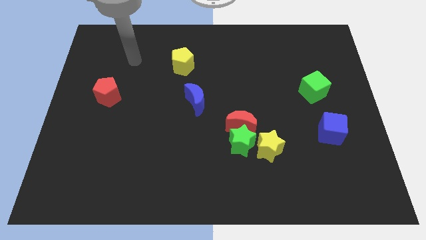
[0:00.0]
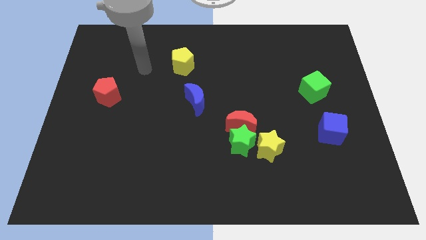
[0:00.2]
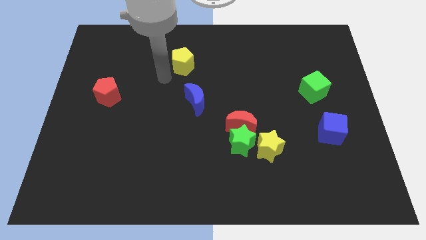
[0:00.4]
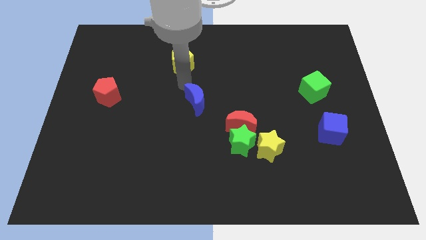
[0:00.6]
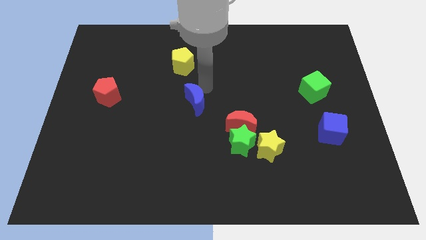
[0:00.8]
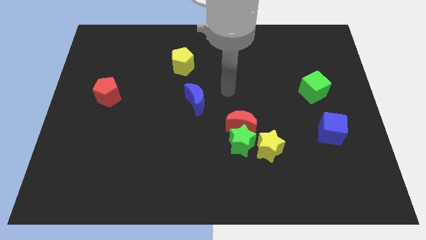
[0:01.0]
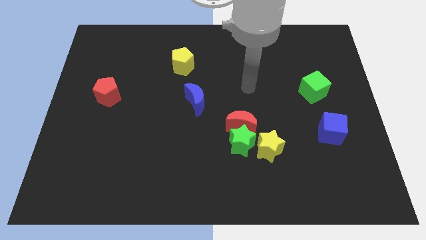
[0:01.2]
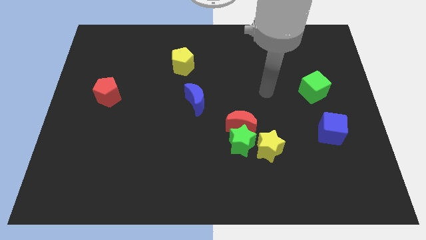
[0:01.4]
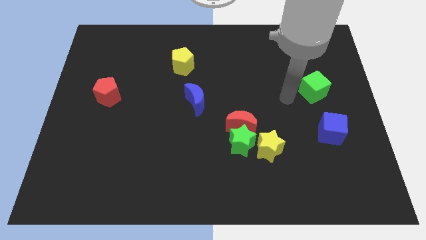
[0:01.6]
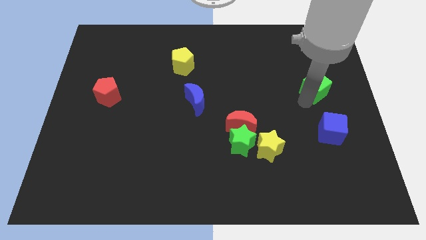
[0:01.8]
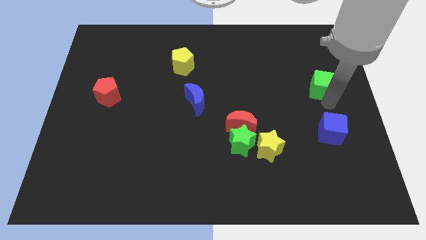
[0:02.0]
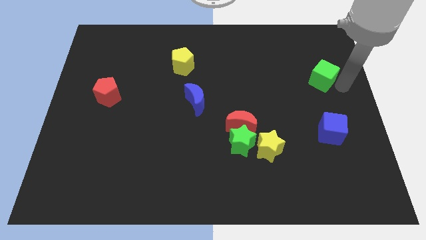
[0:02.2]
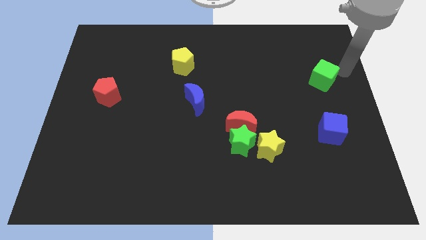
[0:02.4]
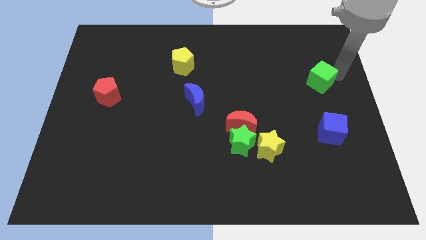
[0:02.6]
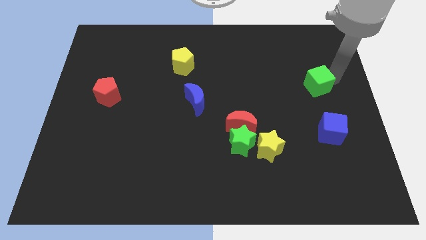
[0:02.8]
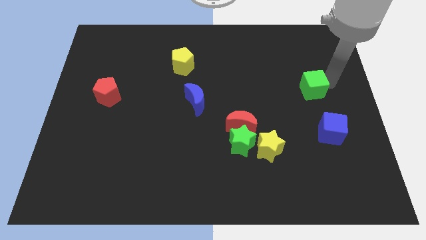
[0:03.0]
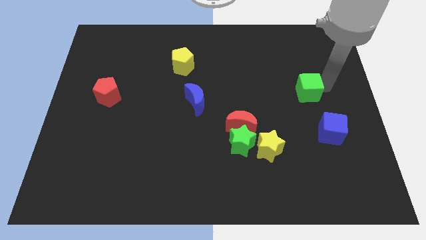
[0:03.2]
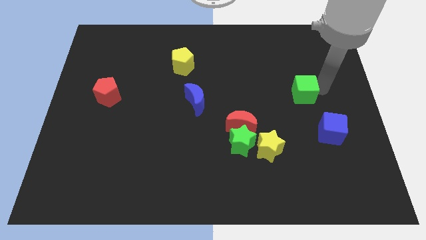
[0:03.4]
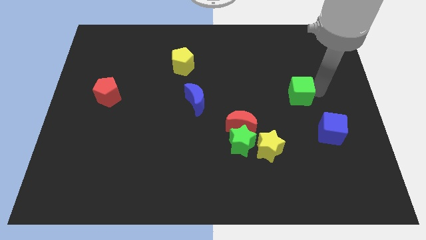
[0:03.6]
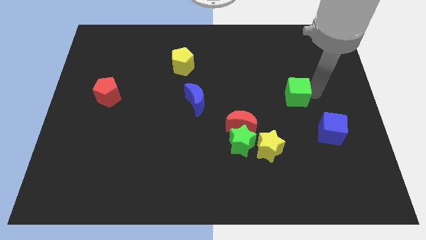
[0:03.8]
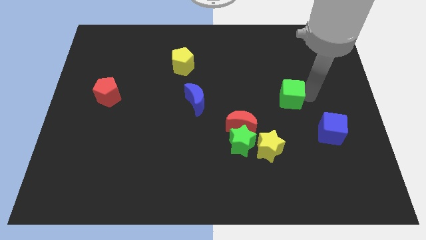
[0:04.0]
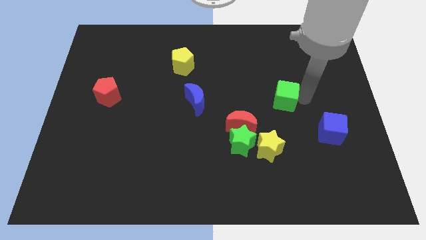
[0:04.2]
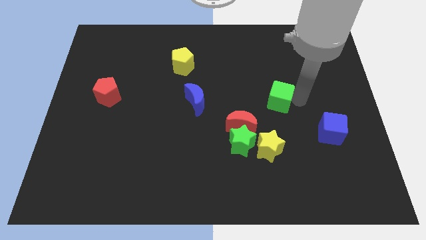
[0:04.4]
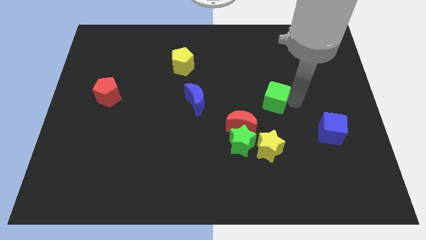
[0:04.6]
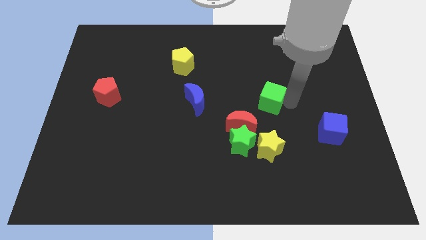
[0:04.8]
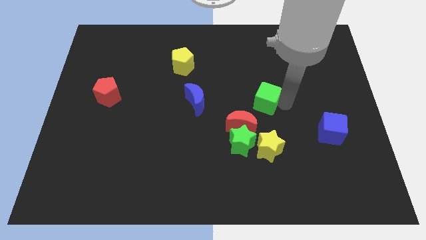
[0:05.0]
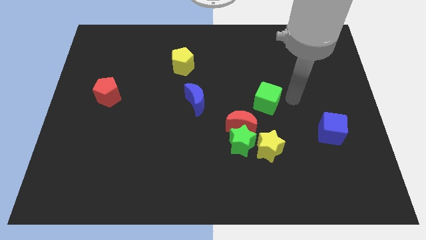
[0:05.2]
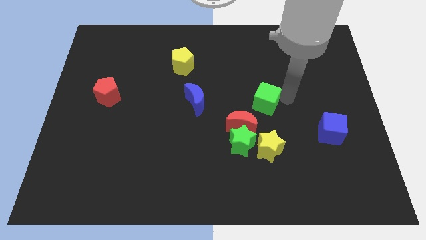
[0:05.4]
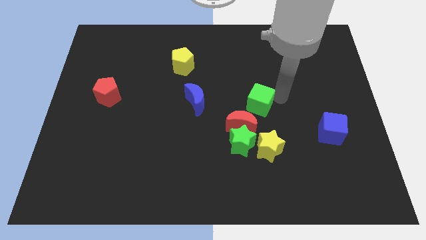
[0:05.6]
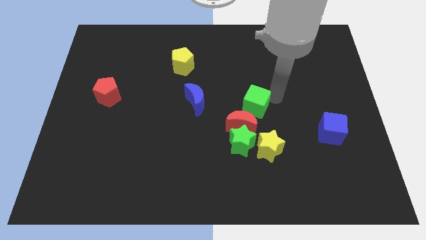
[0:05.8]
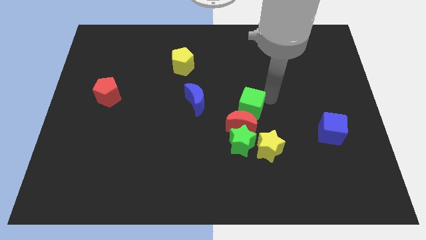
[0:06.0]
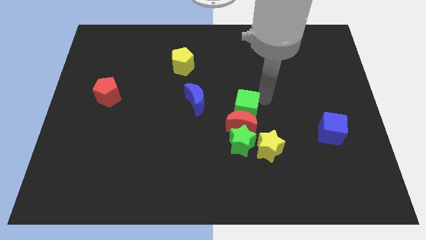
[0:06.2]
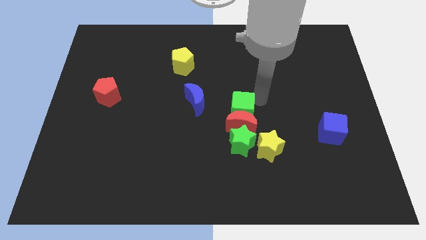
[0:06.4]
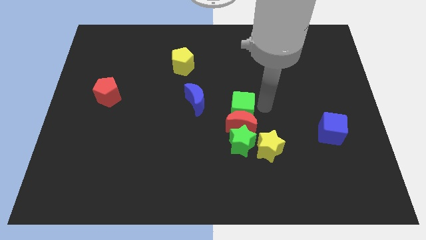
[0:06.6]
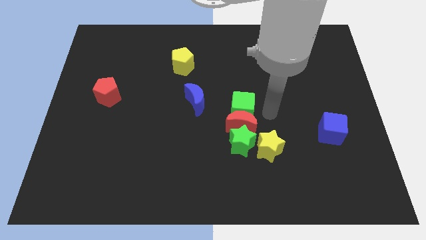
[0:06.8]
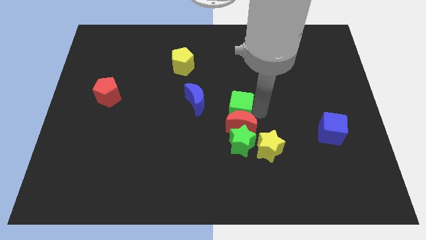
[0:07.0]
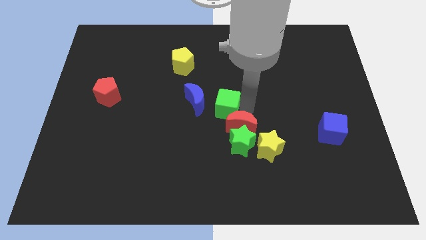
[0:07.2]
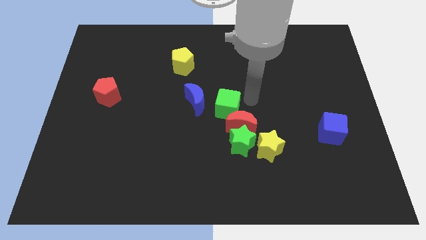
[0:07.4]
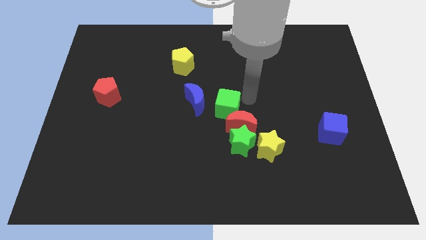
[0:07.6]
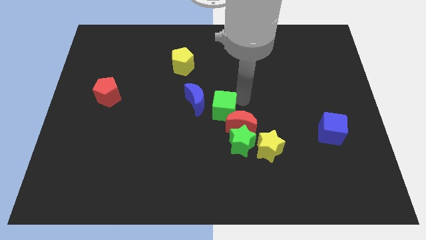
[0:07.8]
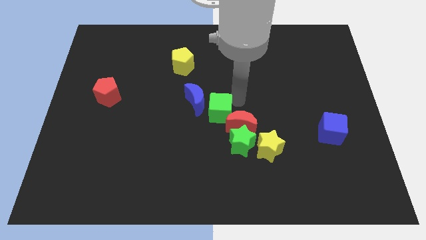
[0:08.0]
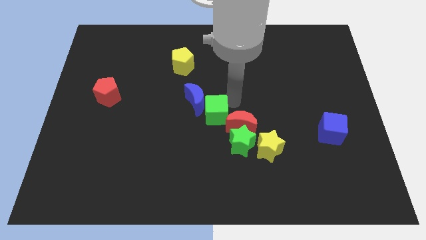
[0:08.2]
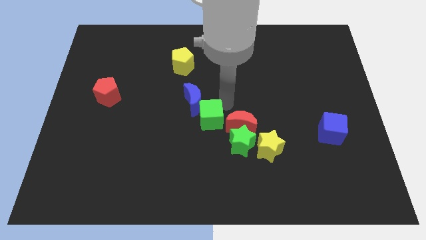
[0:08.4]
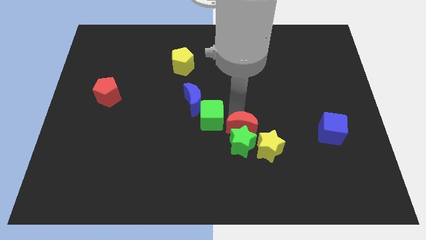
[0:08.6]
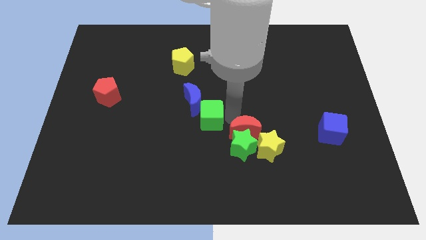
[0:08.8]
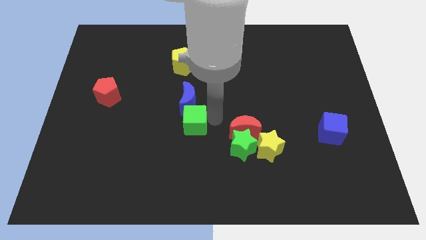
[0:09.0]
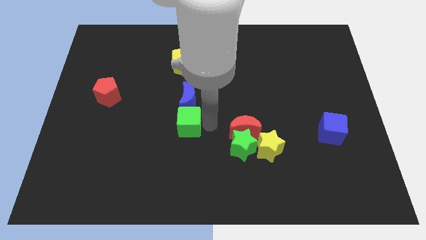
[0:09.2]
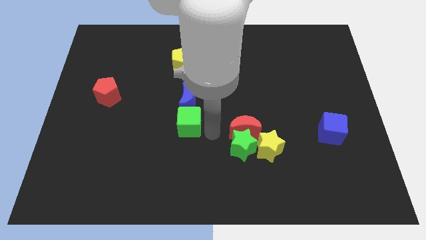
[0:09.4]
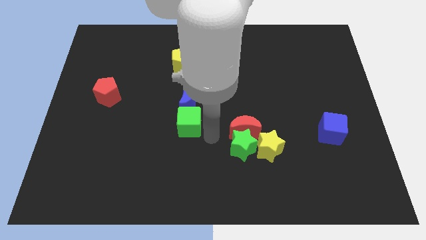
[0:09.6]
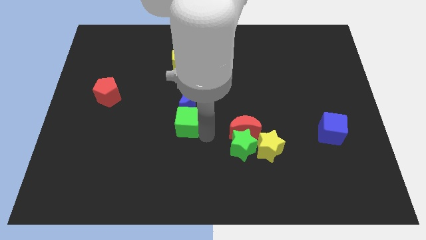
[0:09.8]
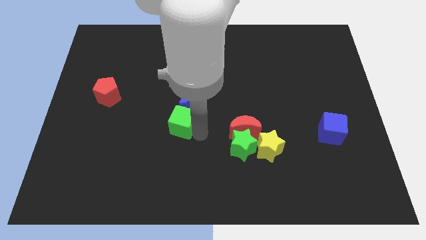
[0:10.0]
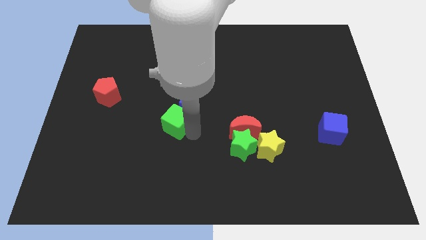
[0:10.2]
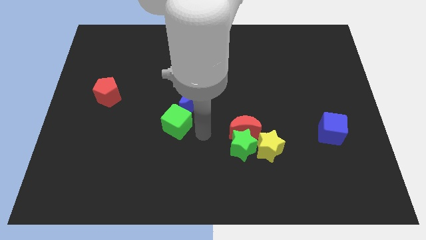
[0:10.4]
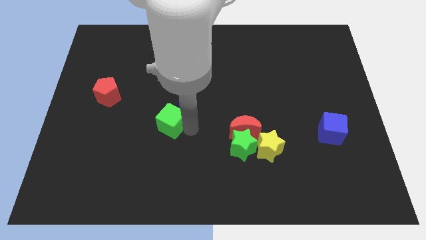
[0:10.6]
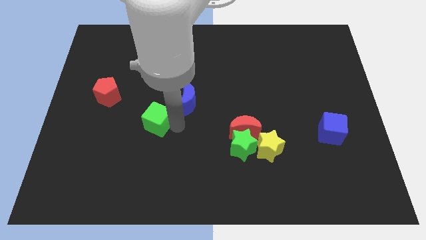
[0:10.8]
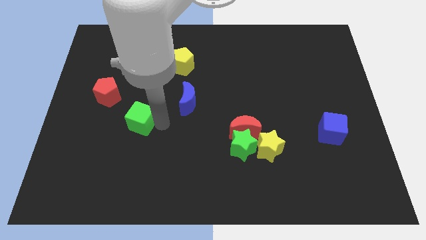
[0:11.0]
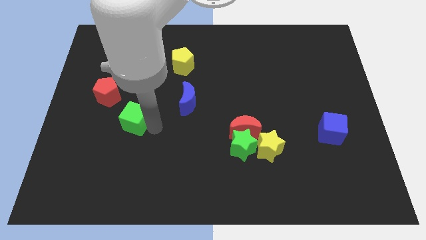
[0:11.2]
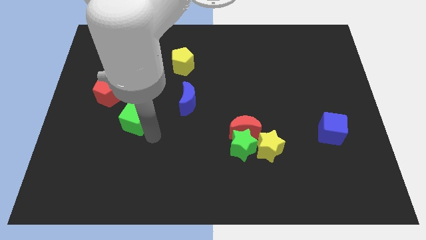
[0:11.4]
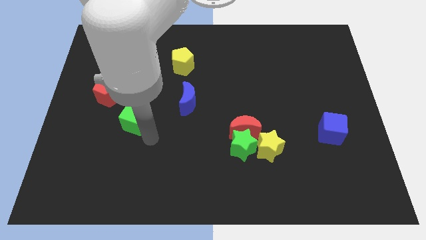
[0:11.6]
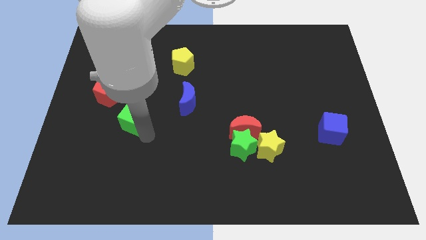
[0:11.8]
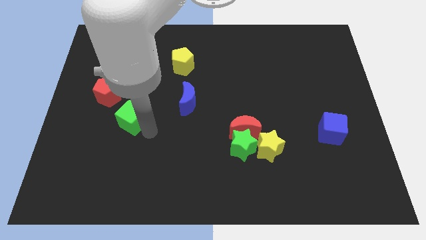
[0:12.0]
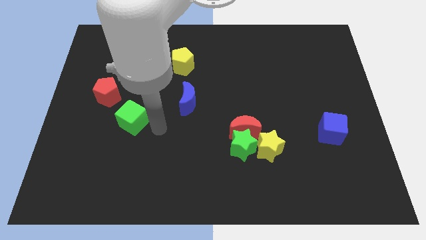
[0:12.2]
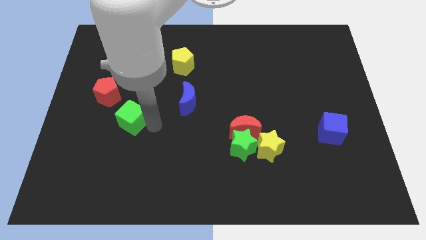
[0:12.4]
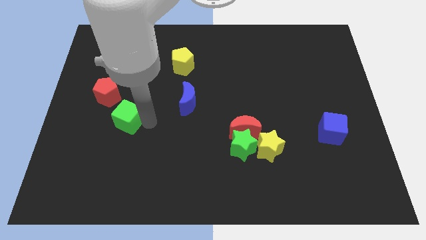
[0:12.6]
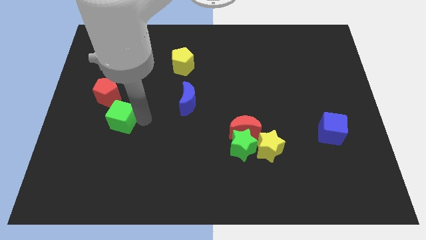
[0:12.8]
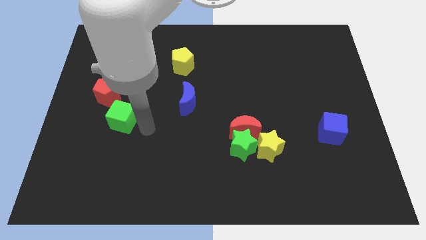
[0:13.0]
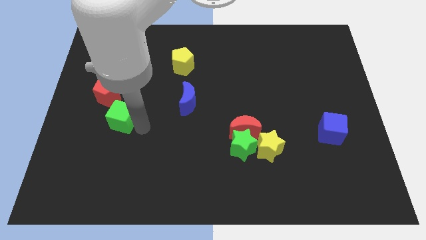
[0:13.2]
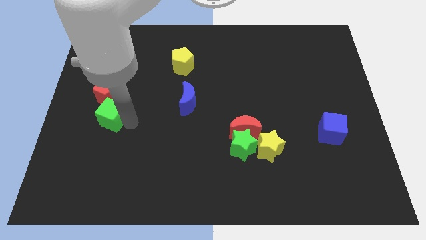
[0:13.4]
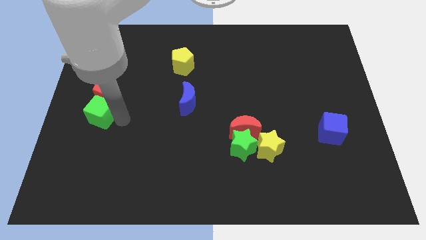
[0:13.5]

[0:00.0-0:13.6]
slide the green cube to the center left

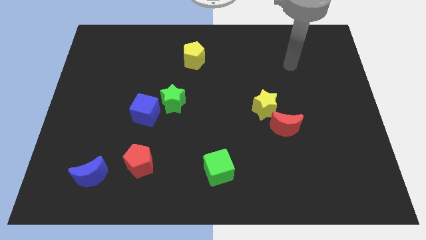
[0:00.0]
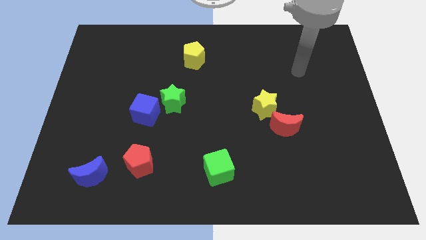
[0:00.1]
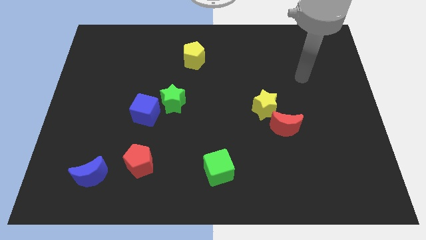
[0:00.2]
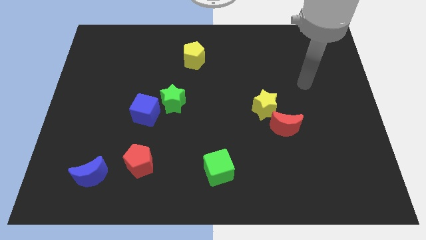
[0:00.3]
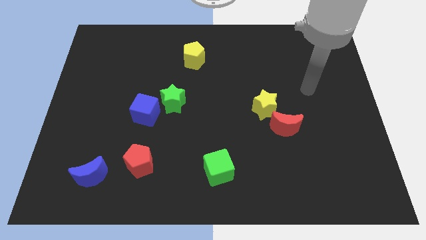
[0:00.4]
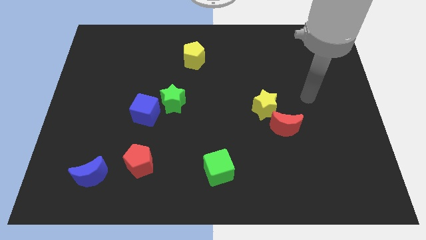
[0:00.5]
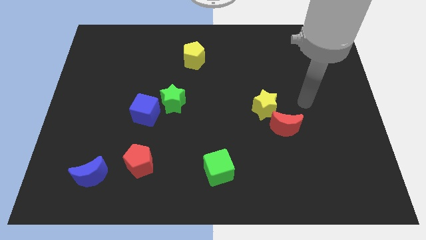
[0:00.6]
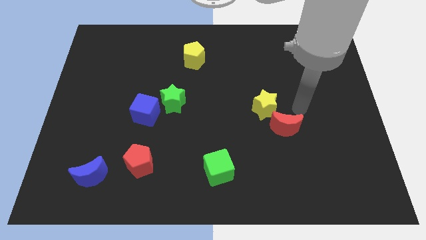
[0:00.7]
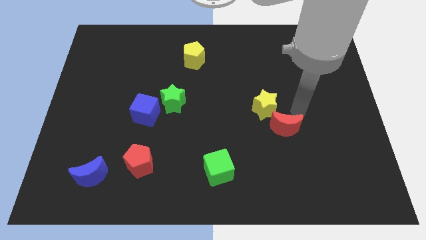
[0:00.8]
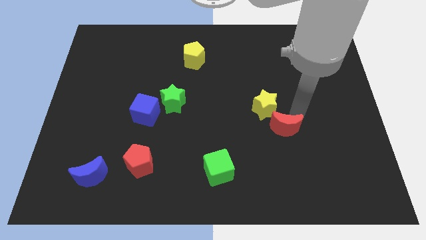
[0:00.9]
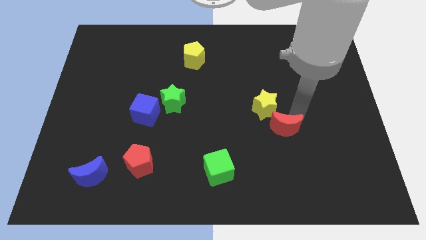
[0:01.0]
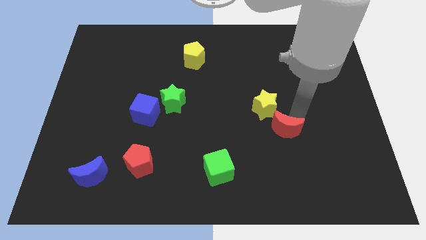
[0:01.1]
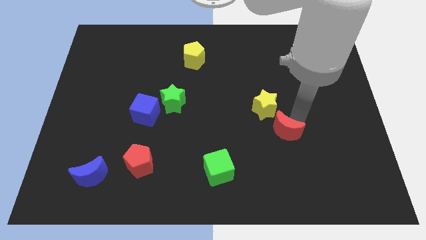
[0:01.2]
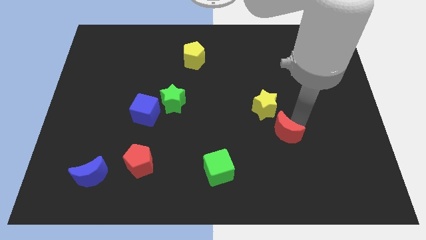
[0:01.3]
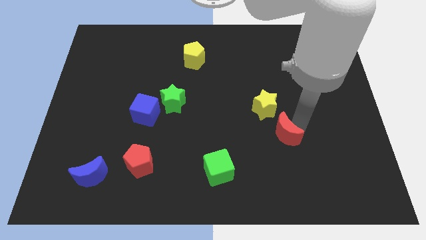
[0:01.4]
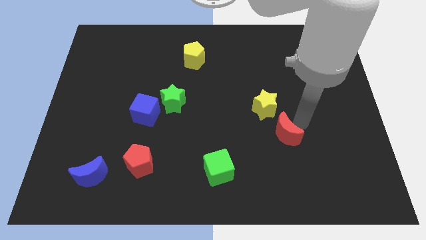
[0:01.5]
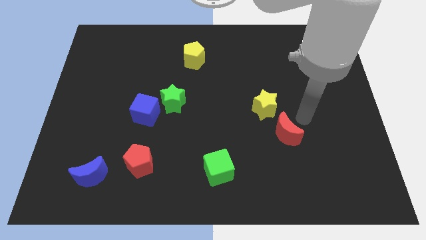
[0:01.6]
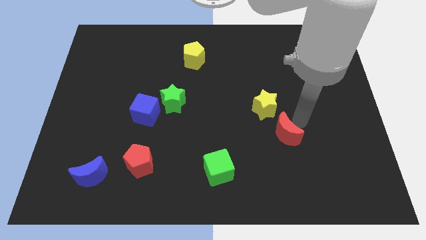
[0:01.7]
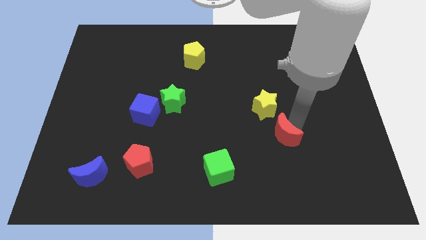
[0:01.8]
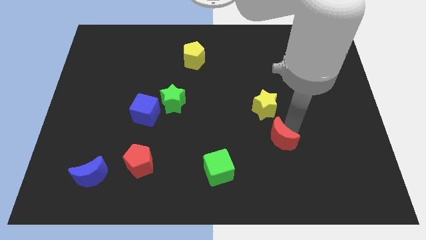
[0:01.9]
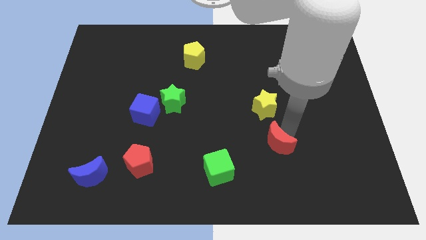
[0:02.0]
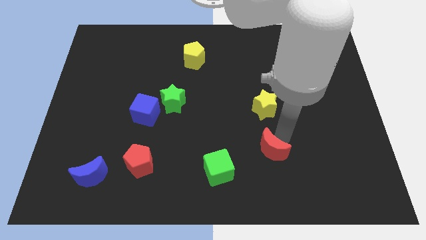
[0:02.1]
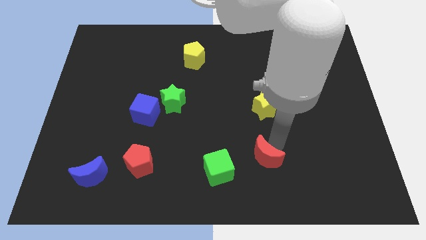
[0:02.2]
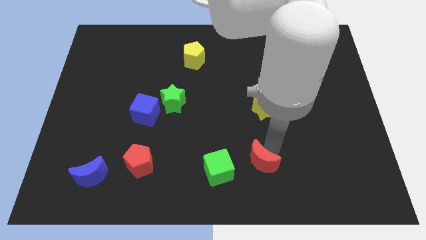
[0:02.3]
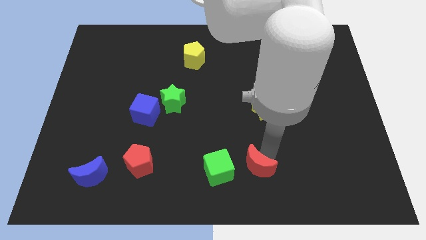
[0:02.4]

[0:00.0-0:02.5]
put the red moon to the bottom
